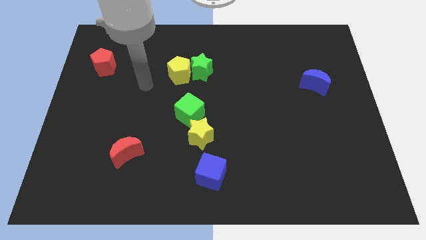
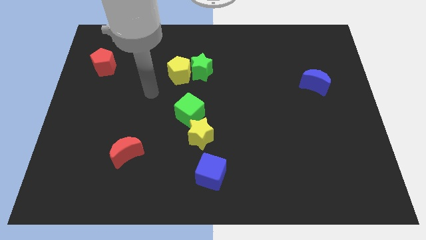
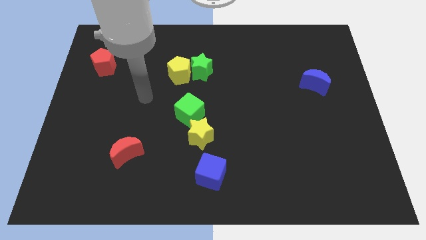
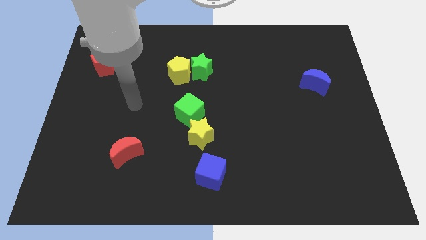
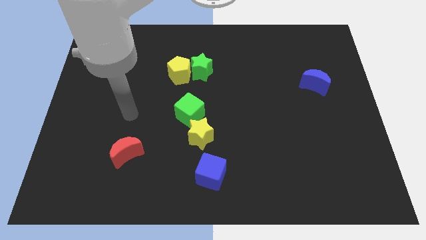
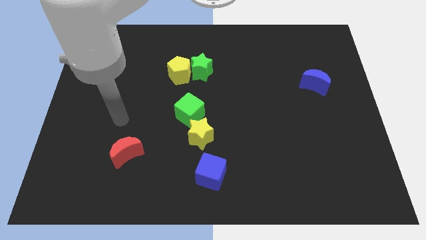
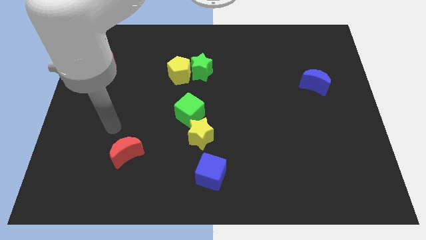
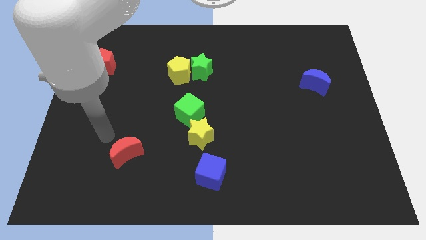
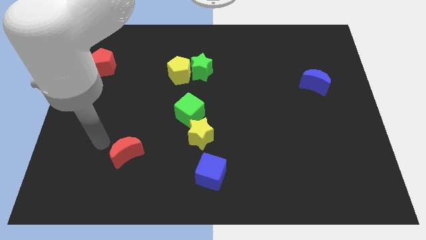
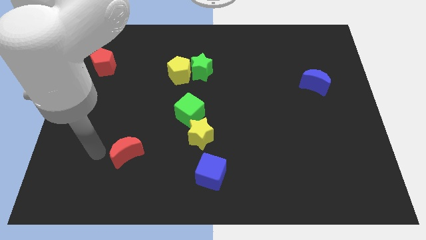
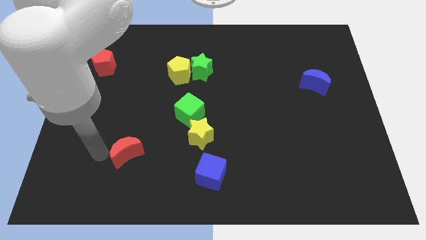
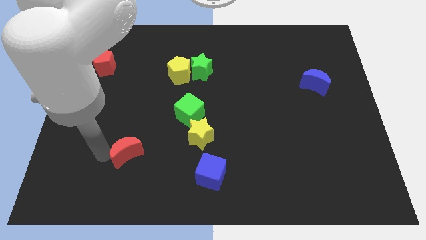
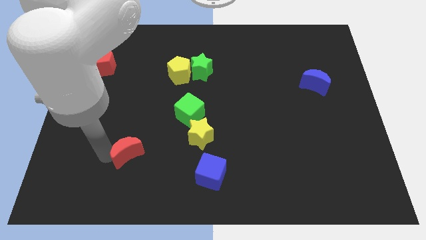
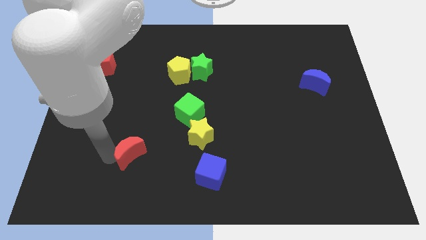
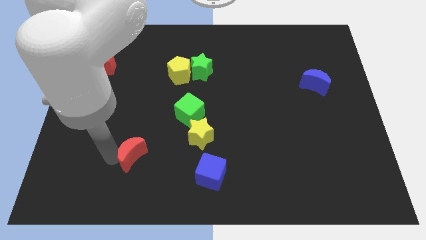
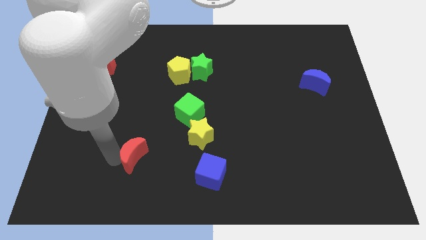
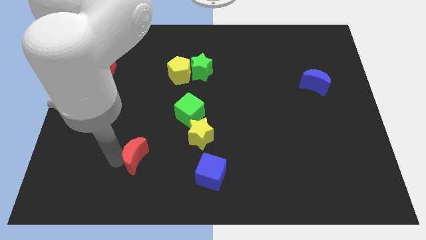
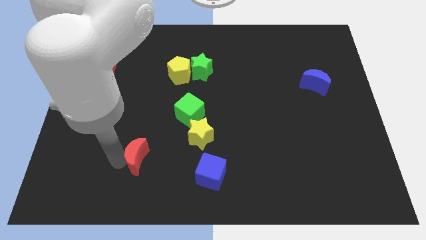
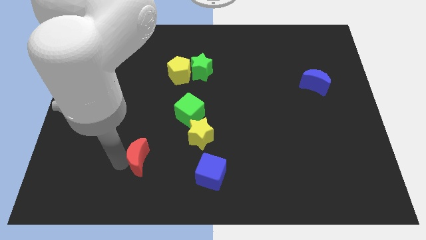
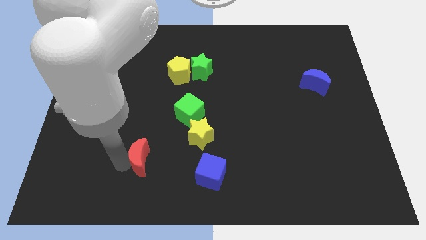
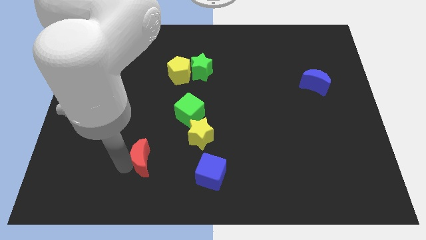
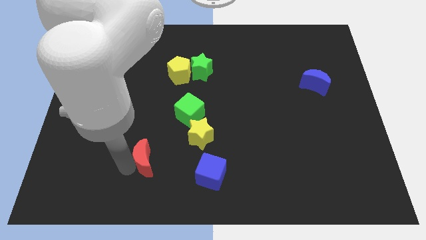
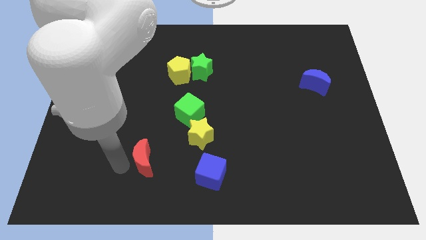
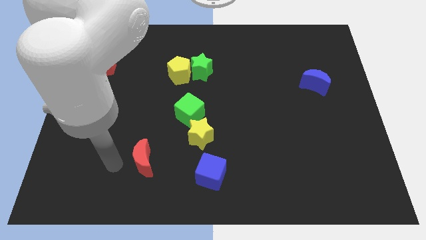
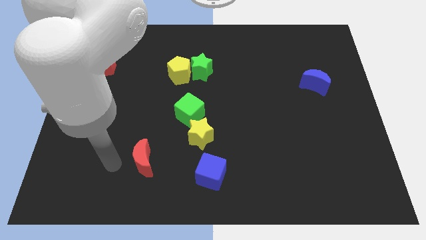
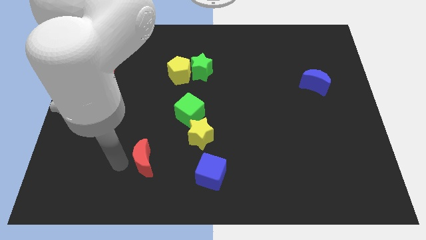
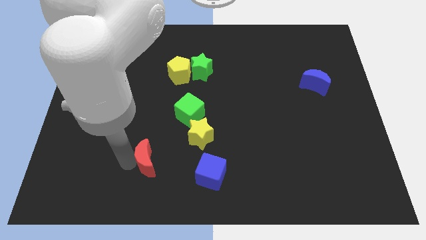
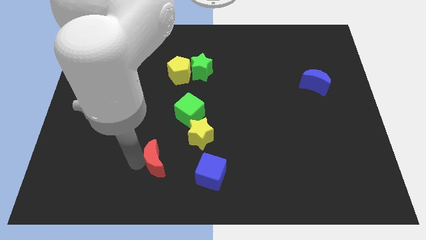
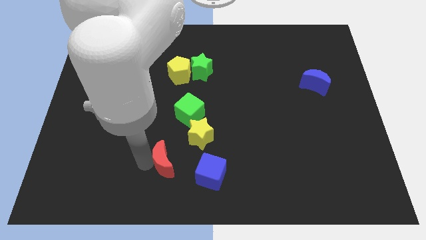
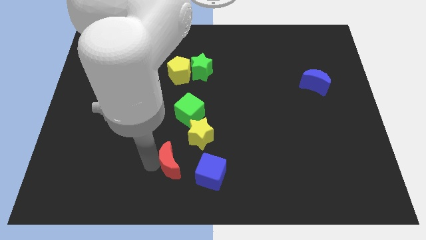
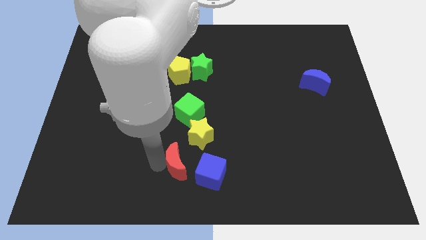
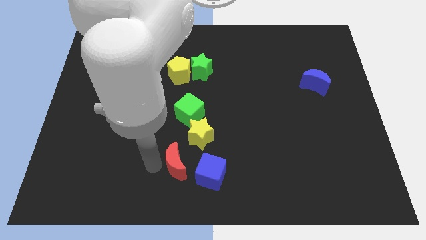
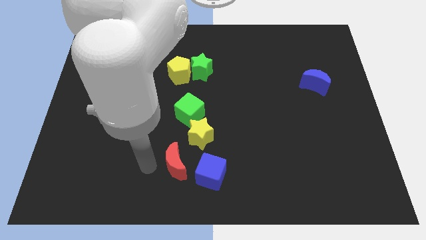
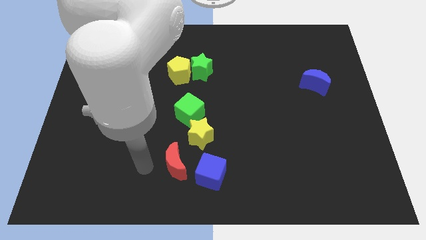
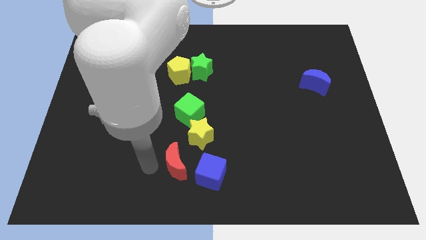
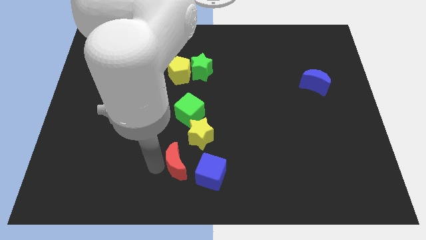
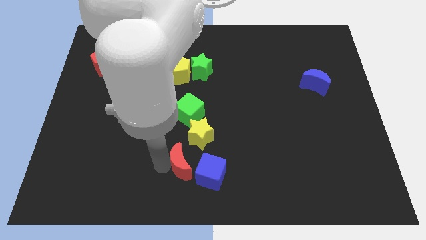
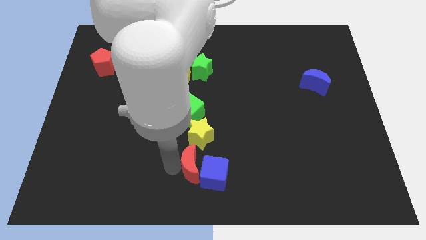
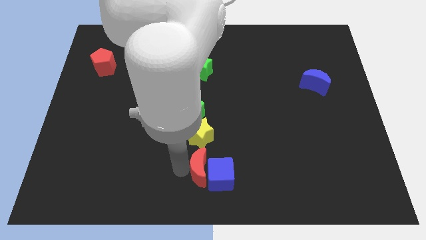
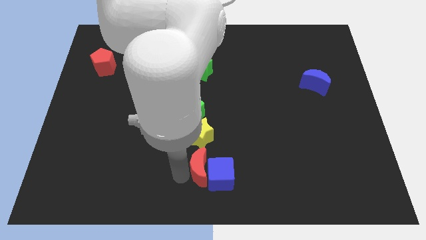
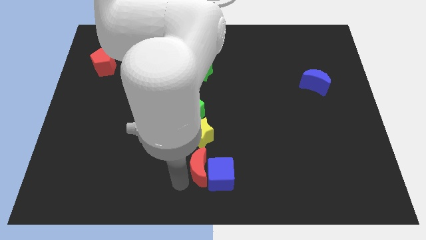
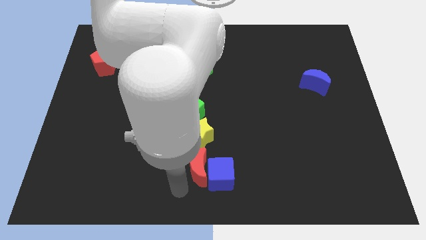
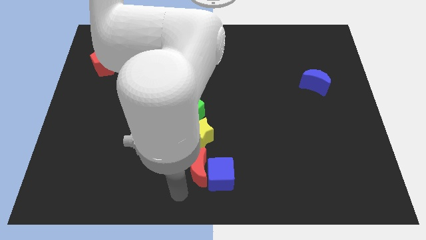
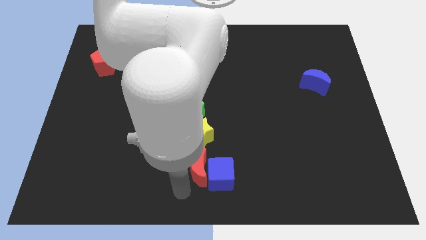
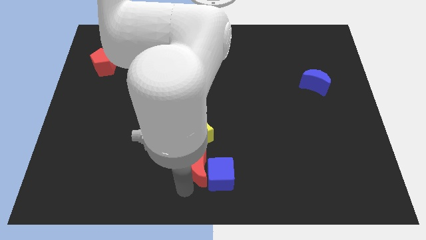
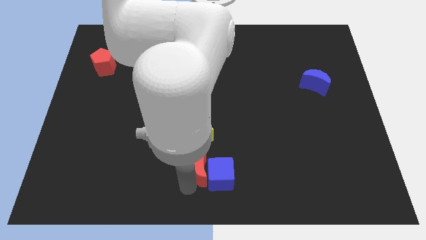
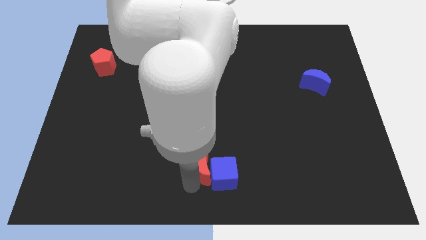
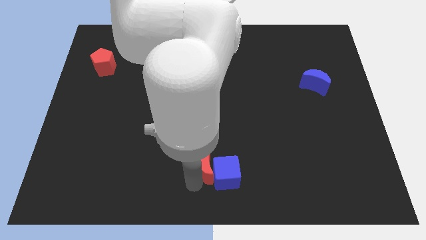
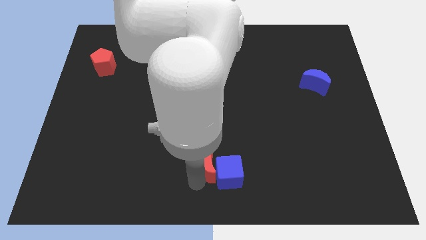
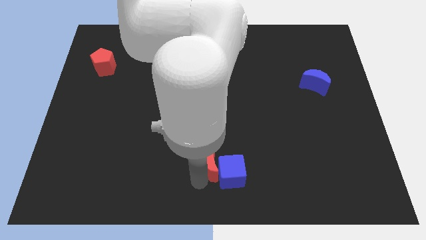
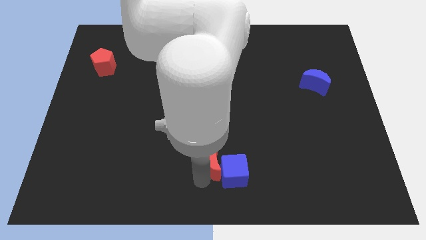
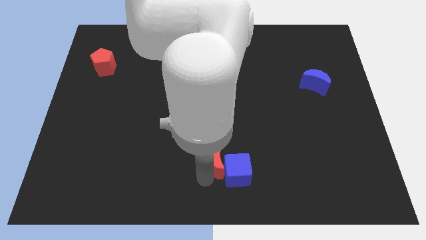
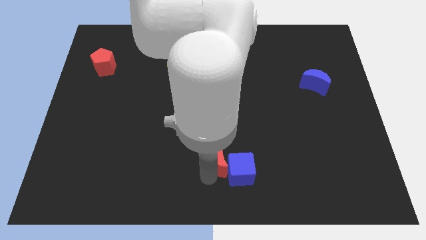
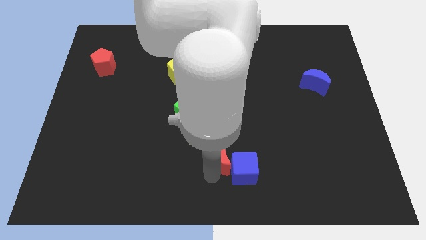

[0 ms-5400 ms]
slide the red moon right

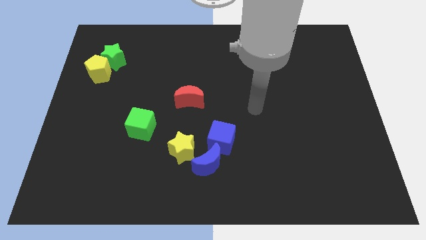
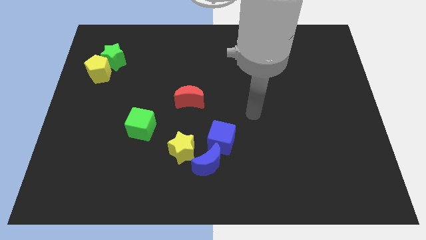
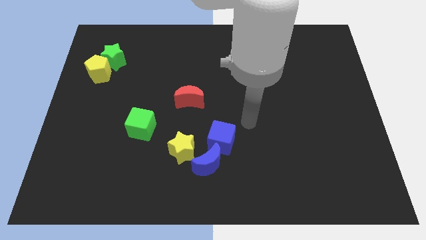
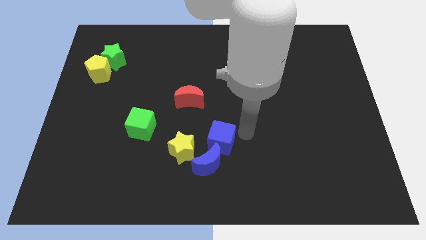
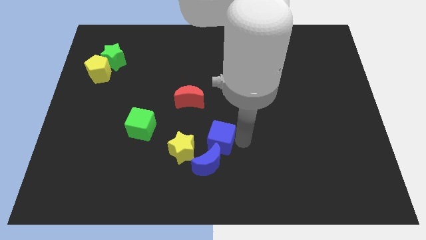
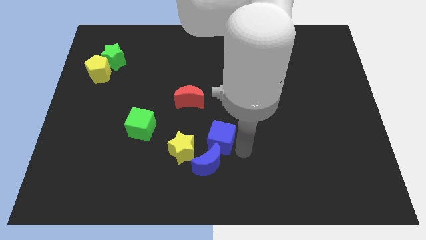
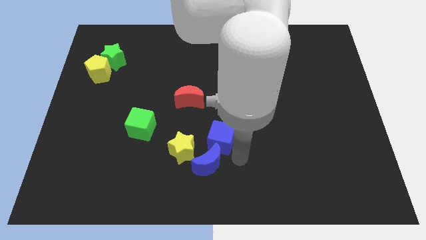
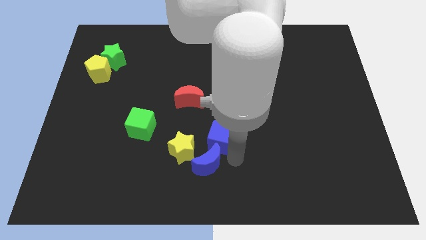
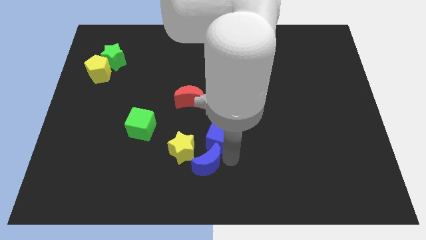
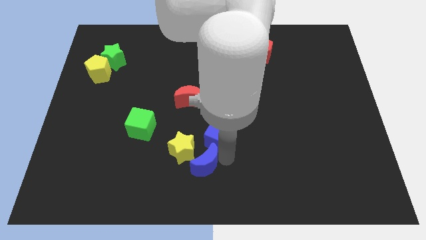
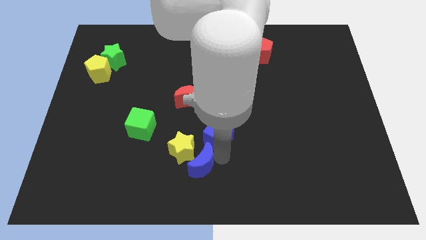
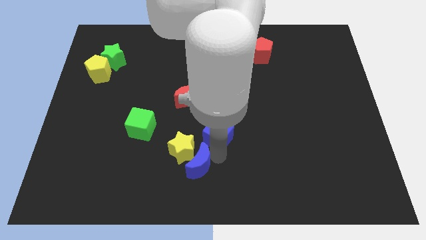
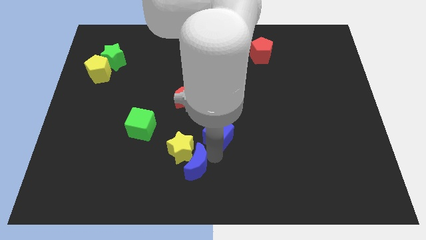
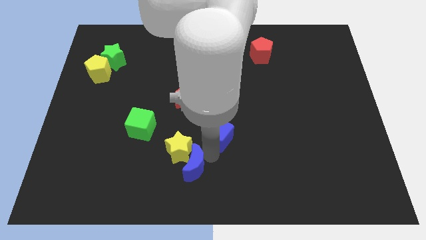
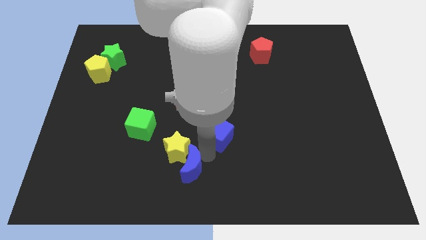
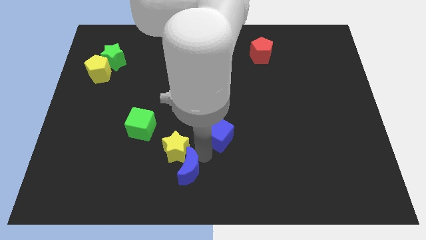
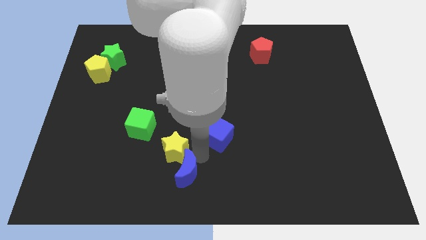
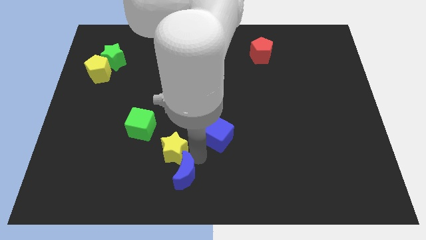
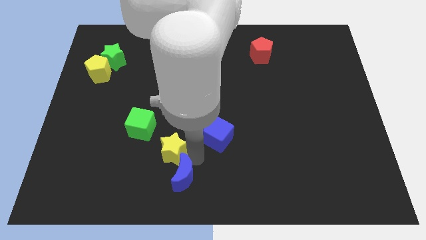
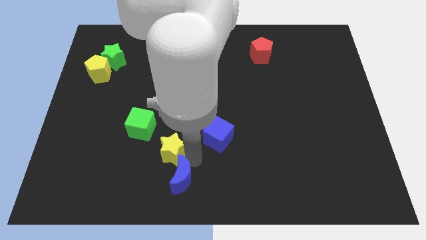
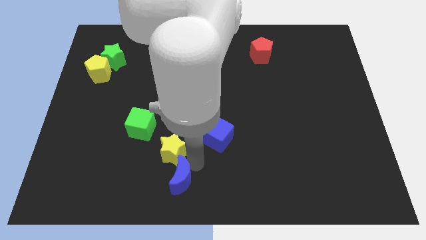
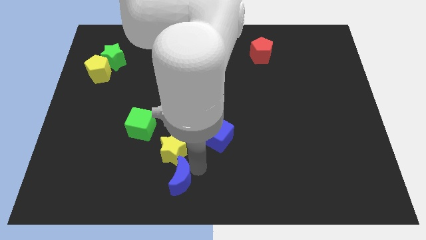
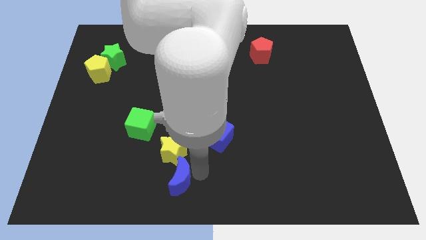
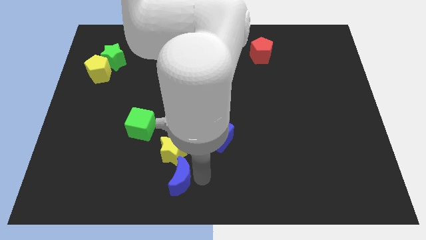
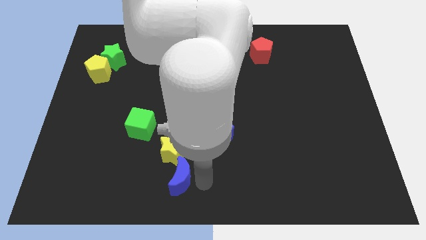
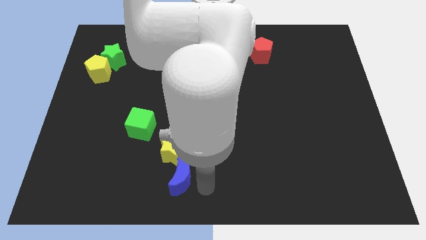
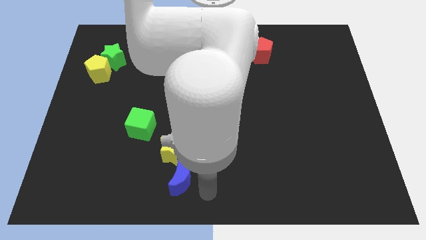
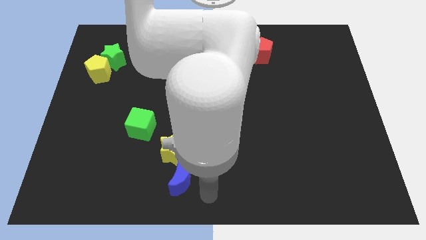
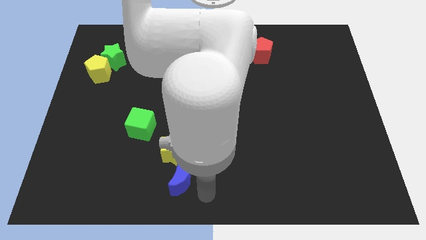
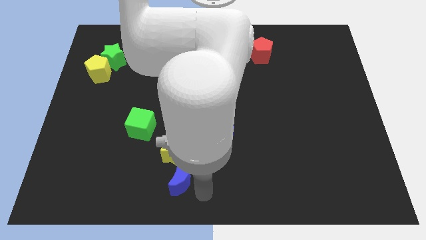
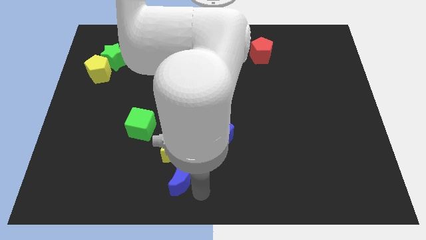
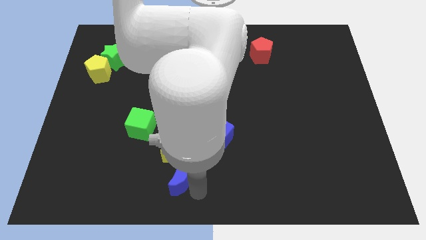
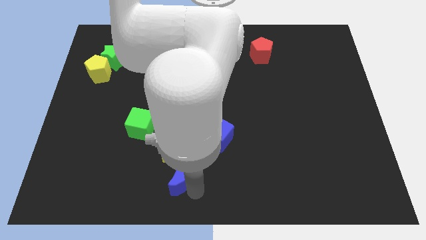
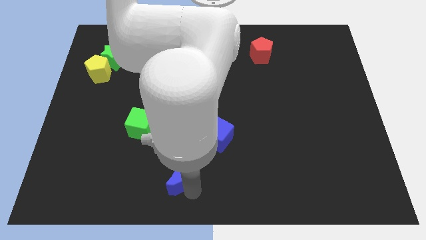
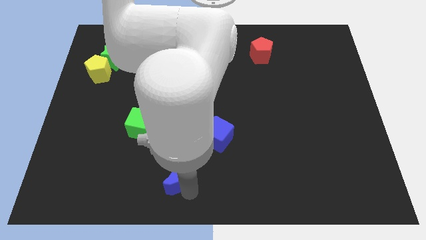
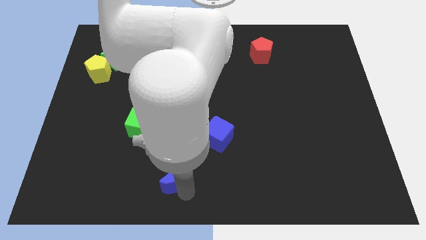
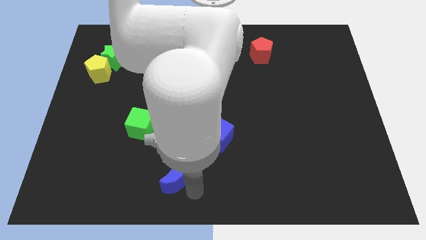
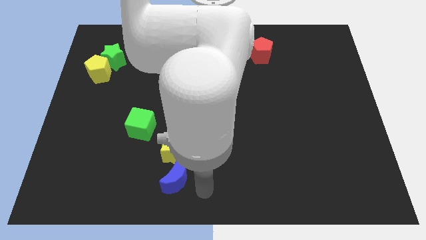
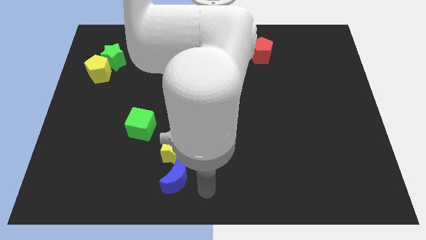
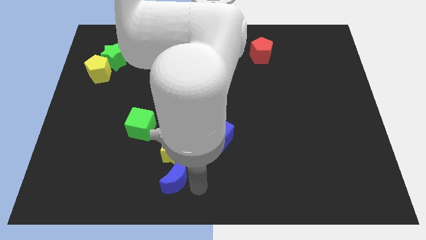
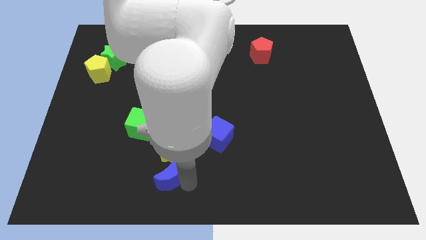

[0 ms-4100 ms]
slide the blue moon a little to the left
